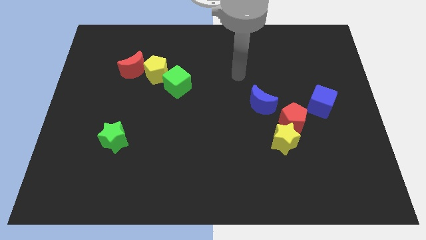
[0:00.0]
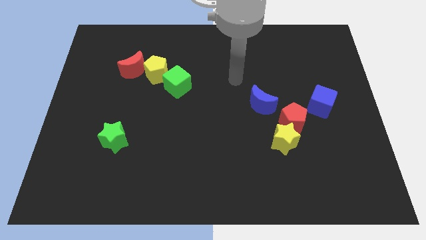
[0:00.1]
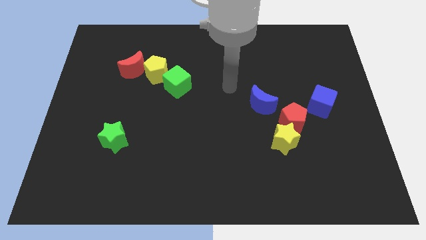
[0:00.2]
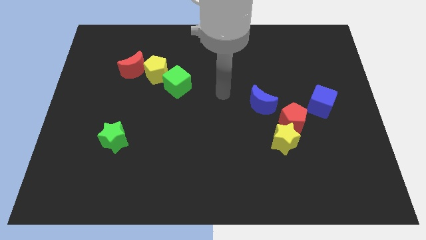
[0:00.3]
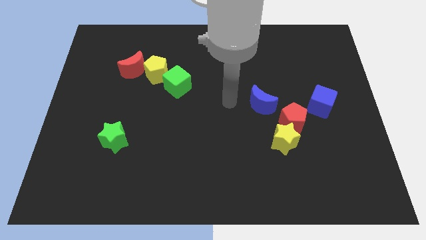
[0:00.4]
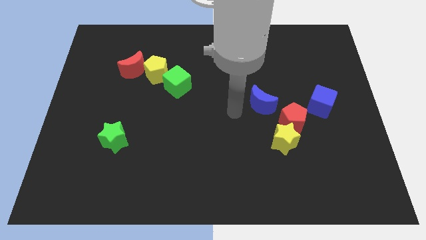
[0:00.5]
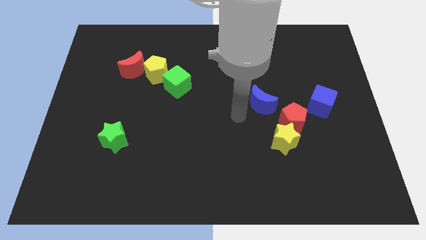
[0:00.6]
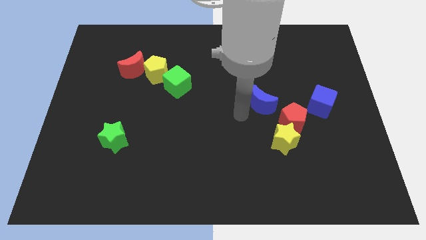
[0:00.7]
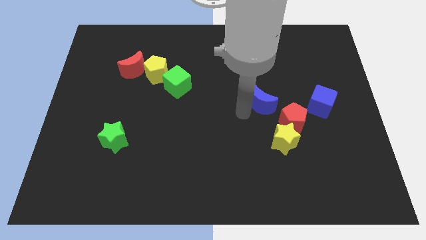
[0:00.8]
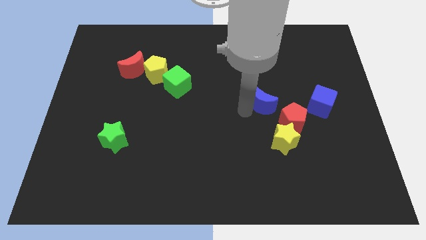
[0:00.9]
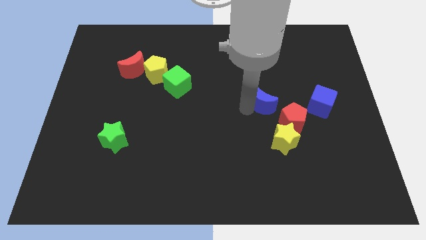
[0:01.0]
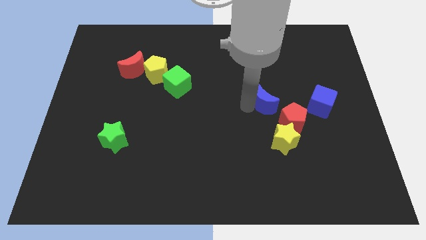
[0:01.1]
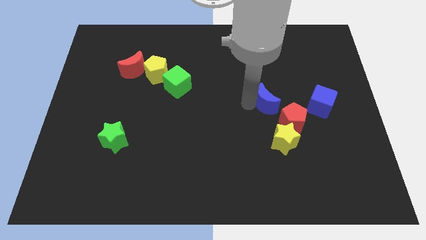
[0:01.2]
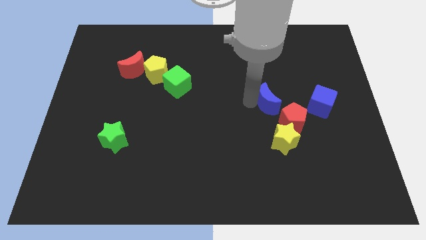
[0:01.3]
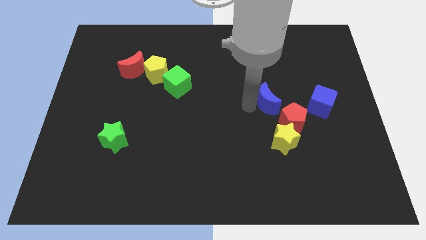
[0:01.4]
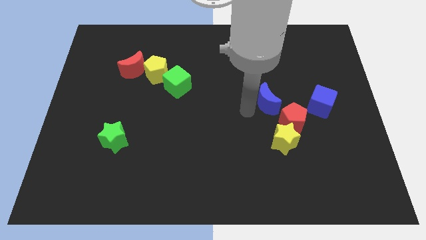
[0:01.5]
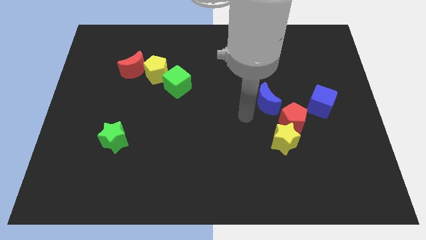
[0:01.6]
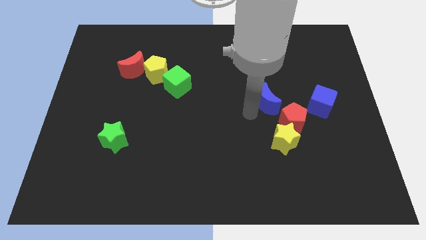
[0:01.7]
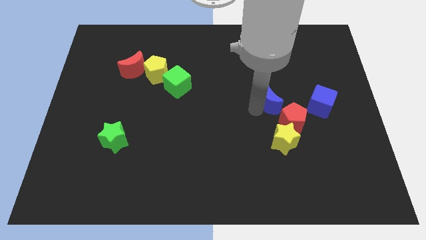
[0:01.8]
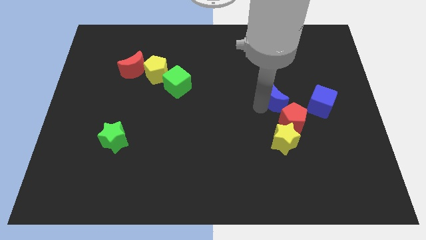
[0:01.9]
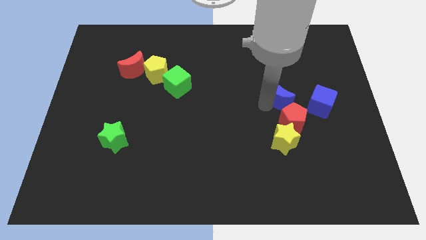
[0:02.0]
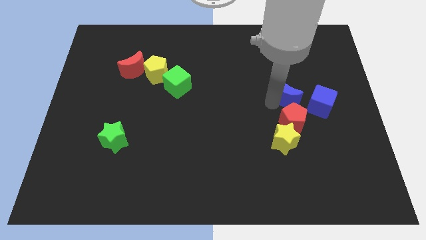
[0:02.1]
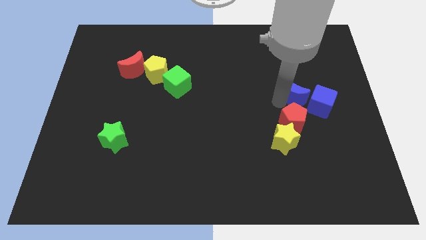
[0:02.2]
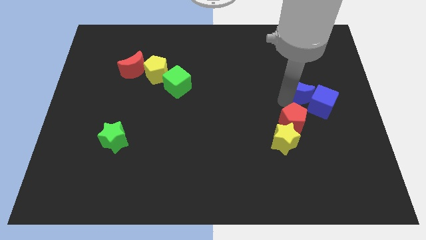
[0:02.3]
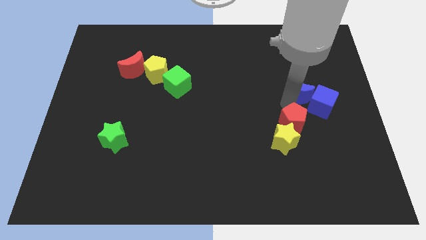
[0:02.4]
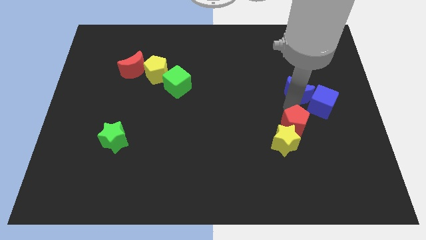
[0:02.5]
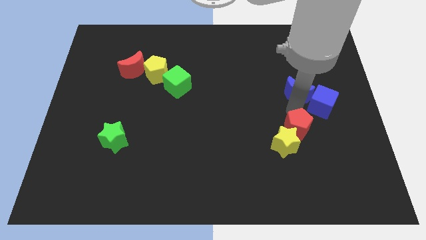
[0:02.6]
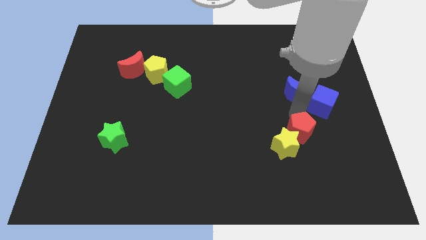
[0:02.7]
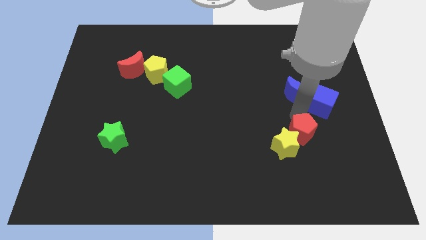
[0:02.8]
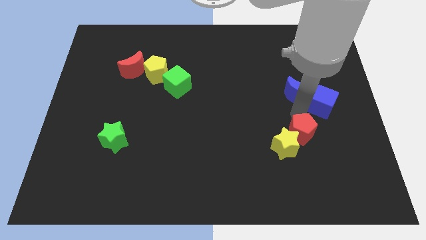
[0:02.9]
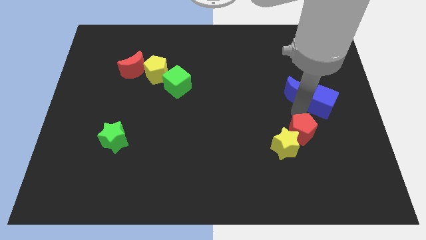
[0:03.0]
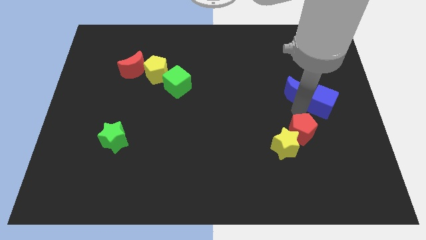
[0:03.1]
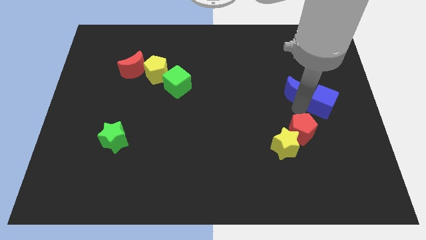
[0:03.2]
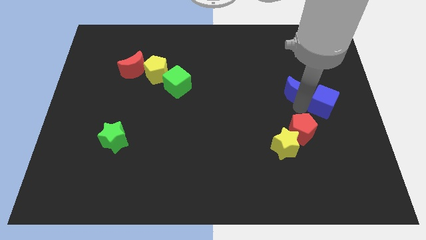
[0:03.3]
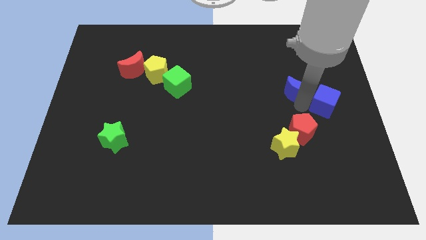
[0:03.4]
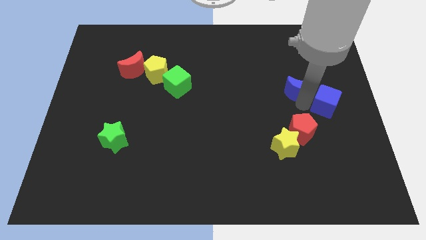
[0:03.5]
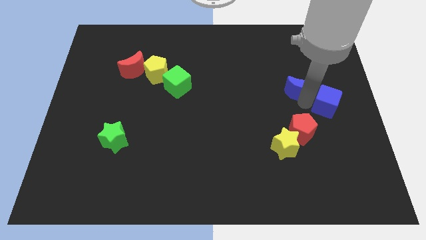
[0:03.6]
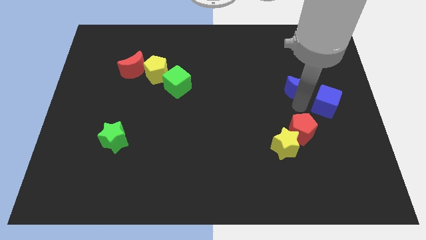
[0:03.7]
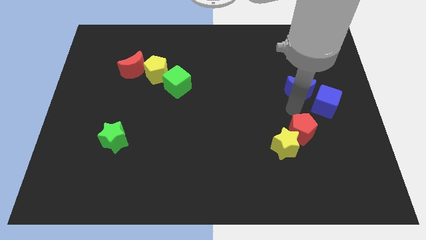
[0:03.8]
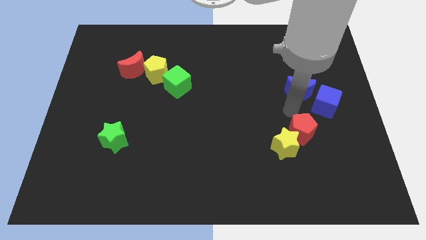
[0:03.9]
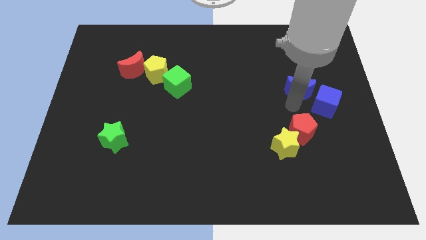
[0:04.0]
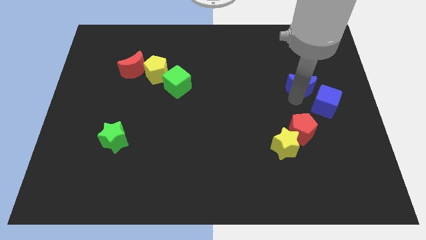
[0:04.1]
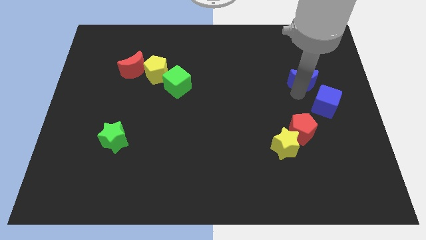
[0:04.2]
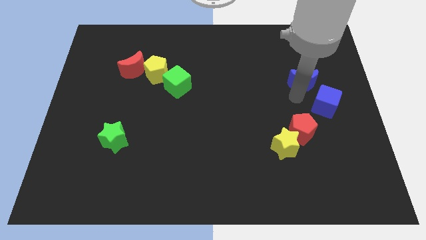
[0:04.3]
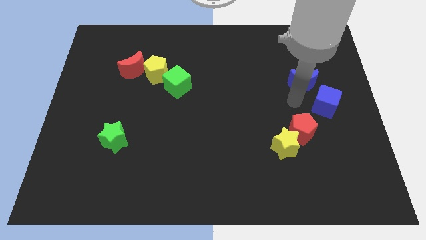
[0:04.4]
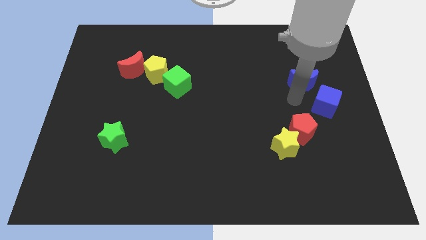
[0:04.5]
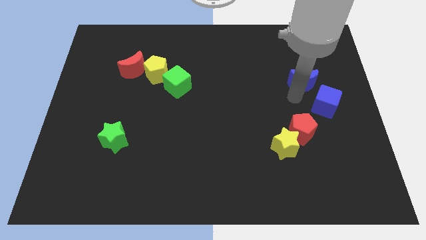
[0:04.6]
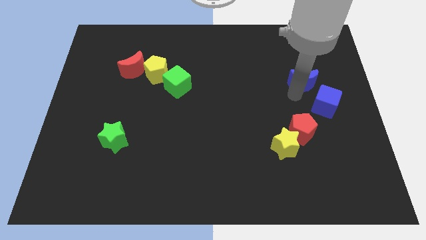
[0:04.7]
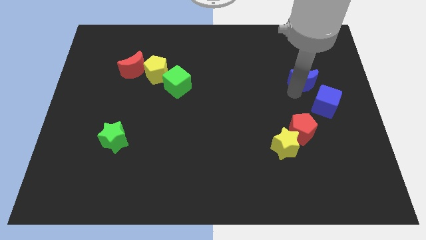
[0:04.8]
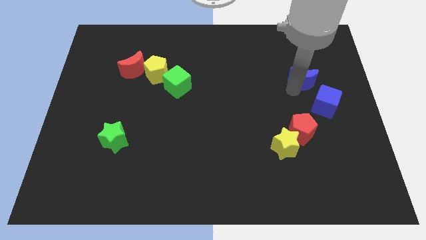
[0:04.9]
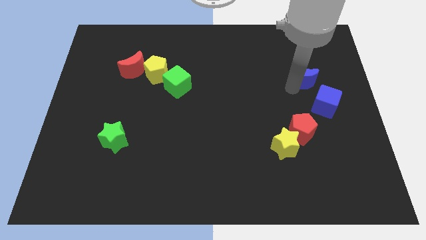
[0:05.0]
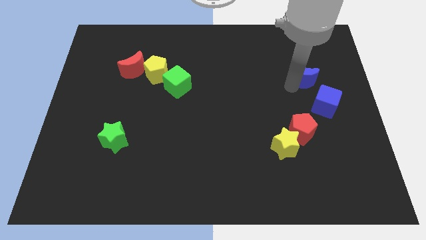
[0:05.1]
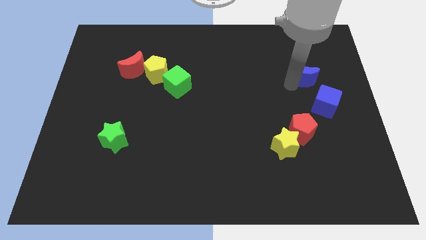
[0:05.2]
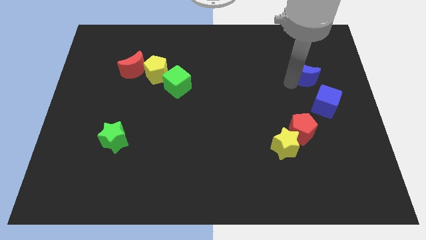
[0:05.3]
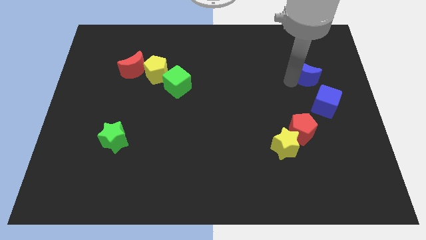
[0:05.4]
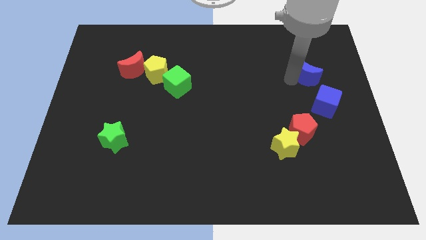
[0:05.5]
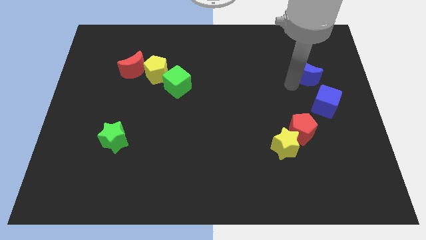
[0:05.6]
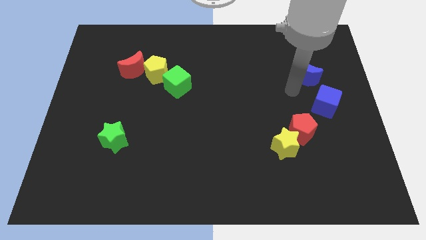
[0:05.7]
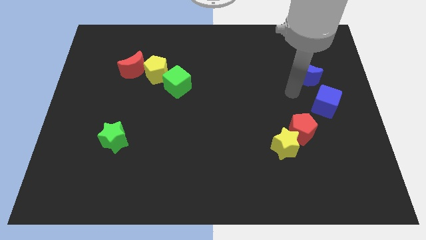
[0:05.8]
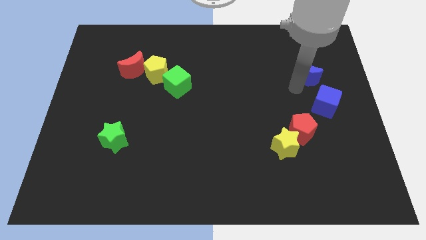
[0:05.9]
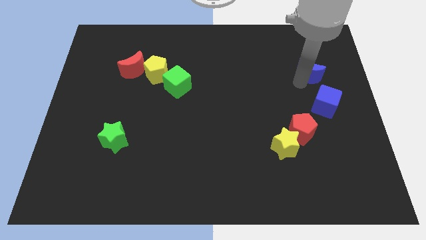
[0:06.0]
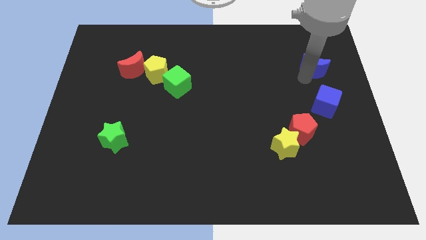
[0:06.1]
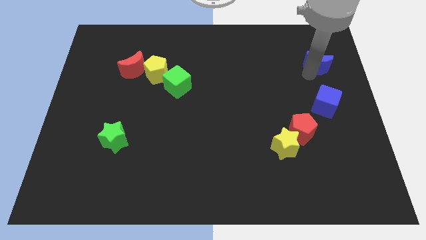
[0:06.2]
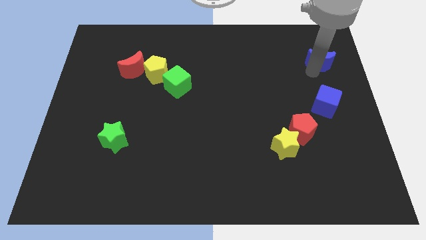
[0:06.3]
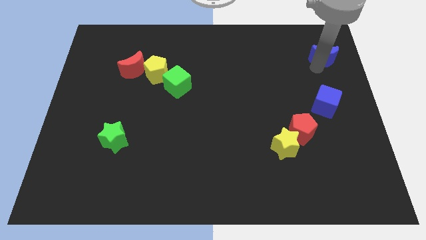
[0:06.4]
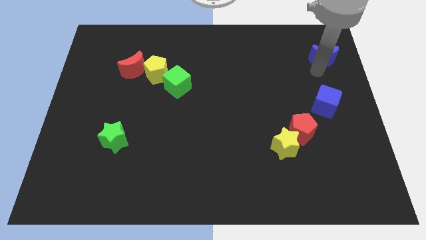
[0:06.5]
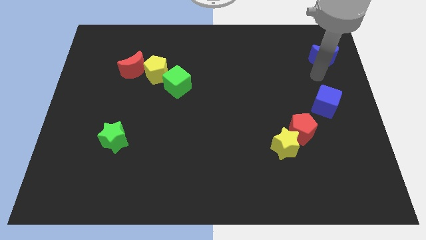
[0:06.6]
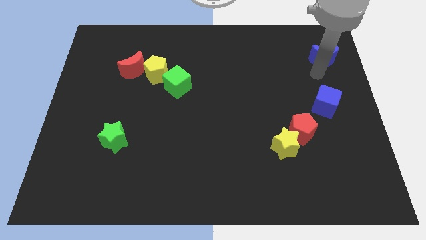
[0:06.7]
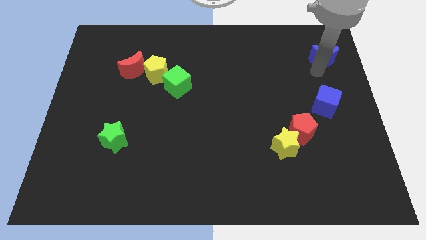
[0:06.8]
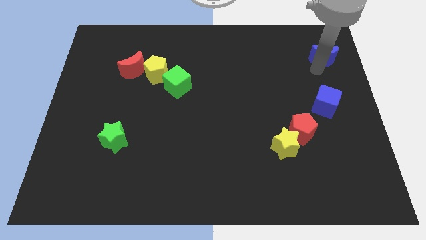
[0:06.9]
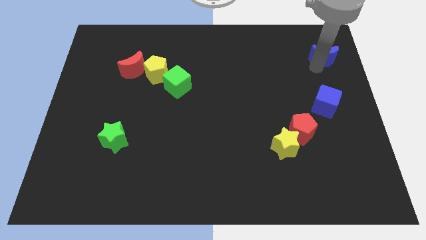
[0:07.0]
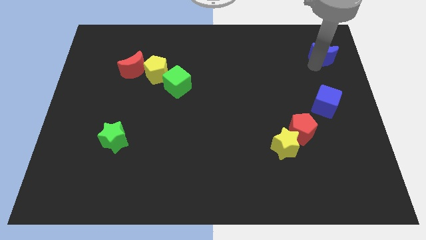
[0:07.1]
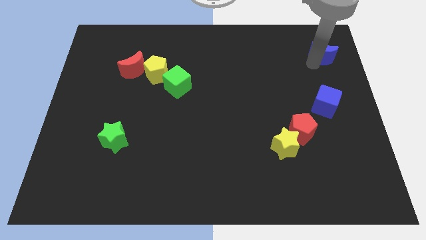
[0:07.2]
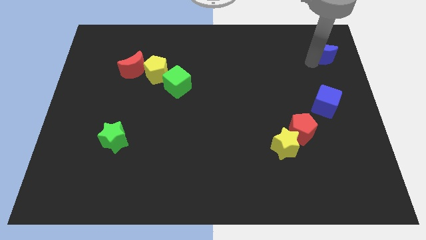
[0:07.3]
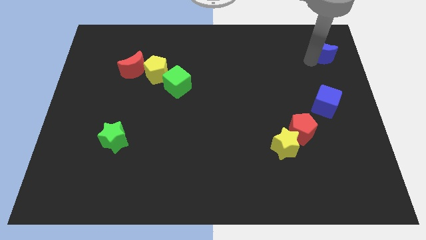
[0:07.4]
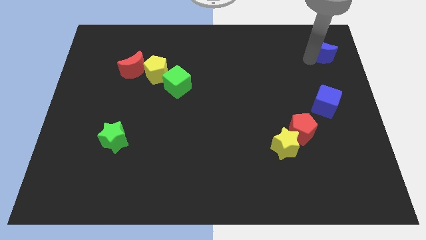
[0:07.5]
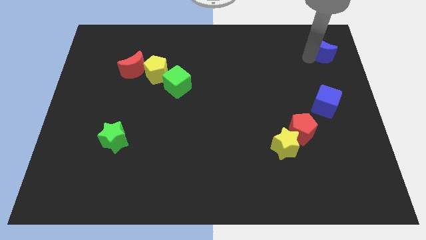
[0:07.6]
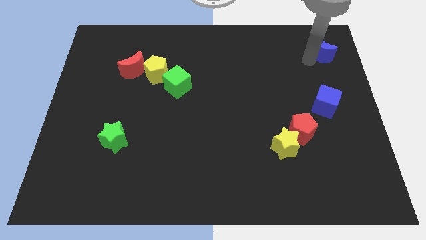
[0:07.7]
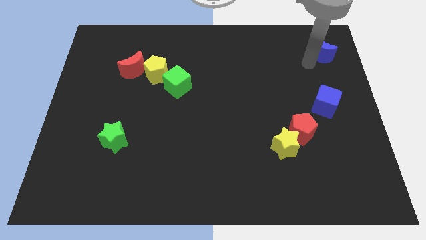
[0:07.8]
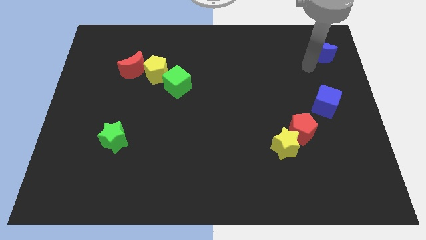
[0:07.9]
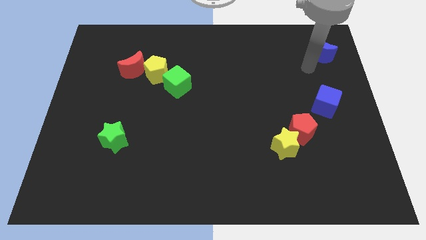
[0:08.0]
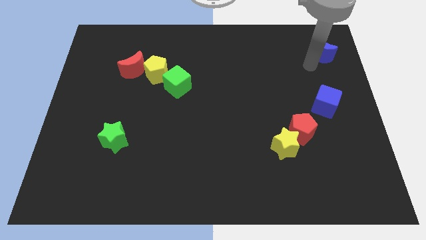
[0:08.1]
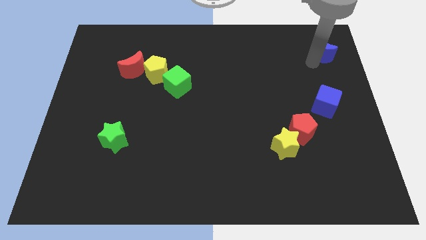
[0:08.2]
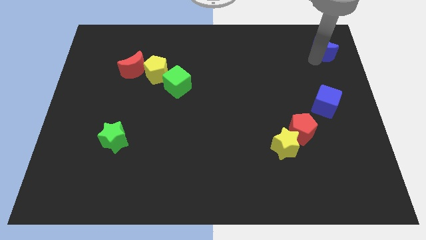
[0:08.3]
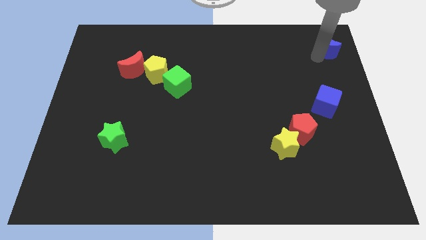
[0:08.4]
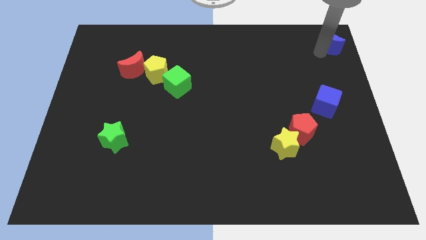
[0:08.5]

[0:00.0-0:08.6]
move the blue moon to the top right
